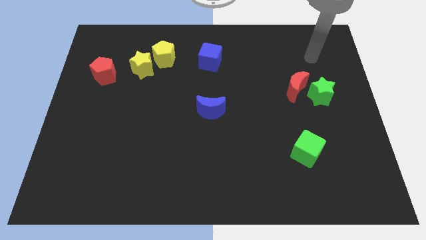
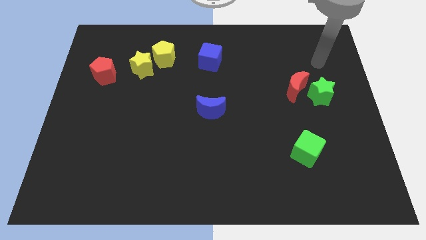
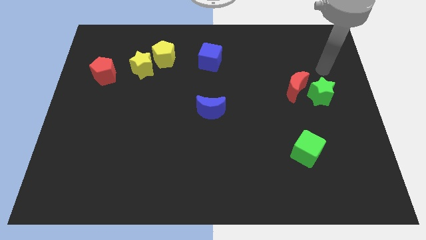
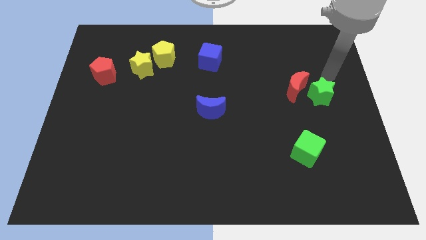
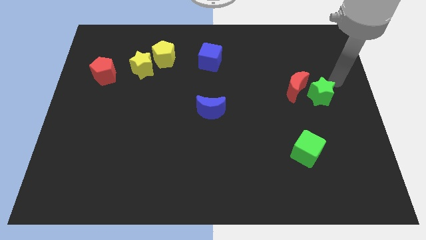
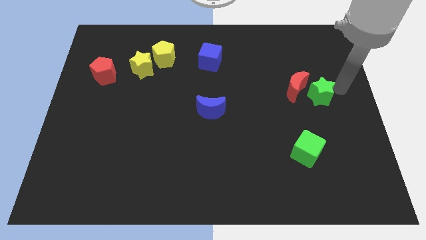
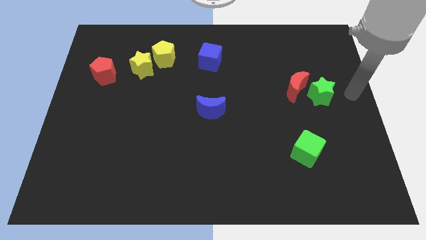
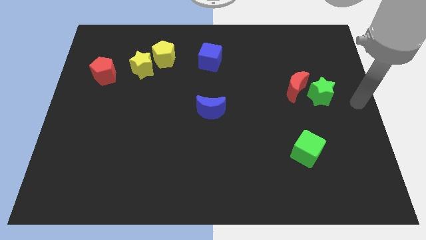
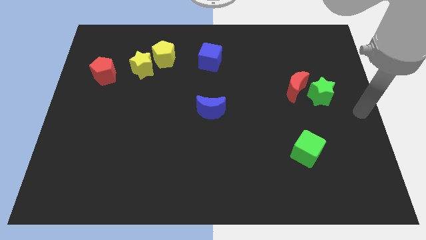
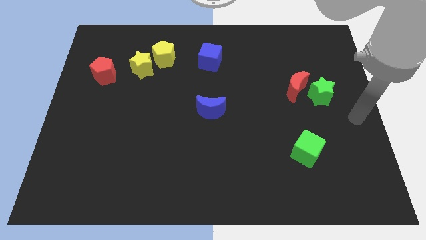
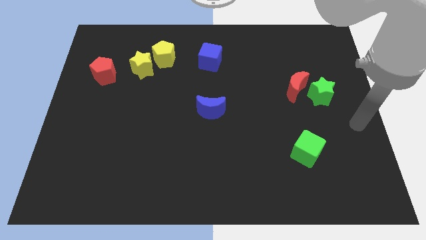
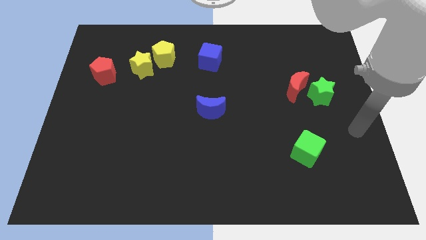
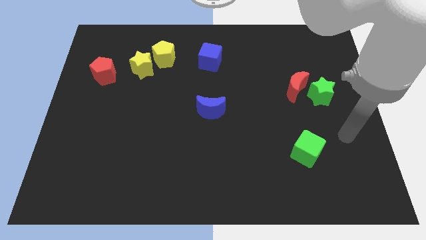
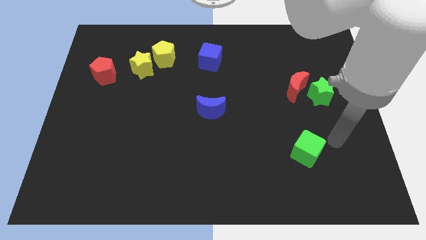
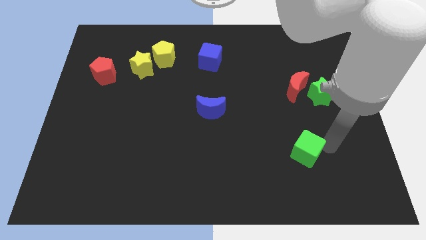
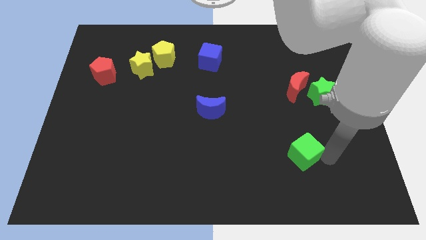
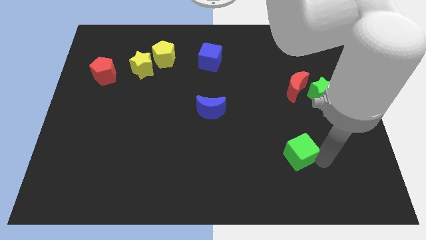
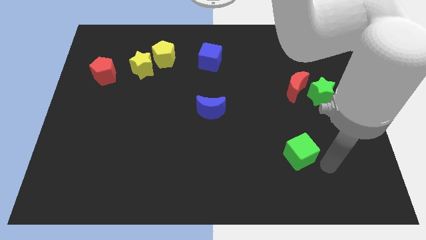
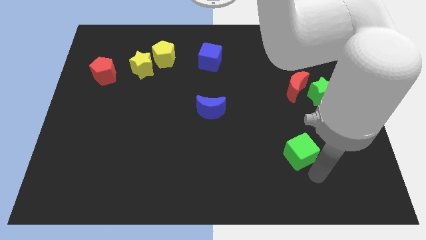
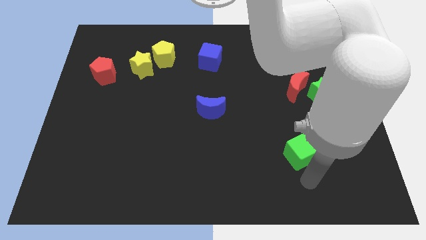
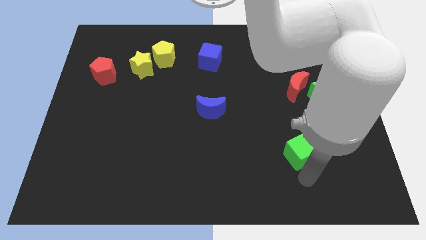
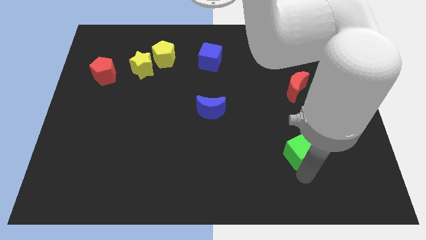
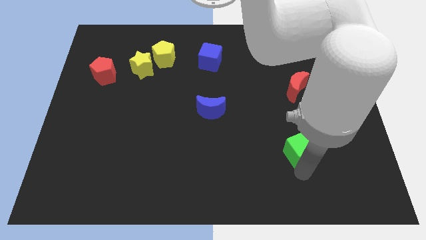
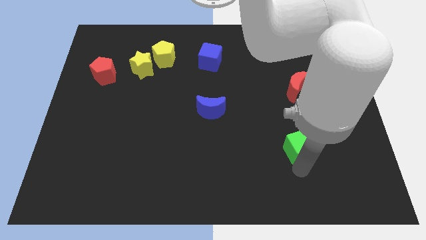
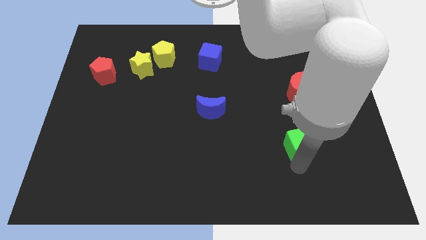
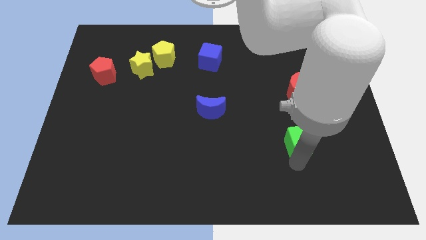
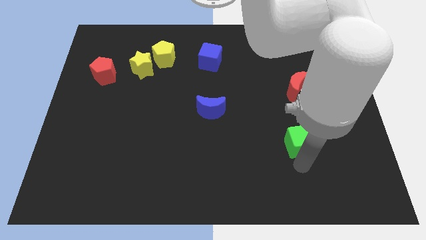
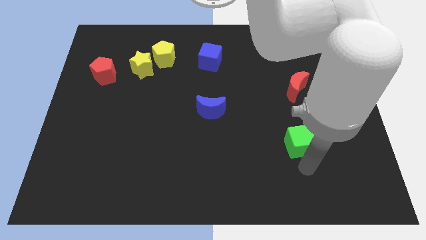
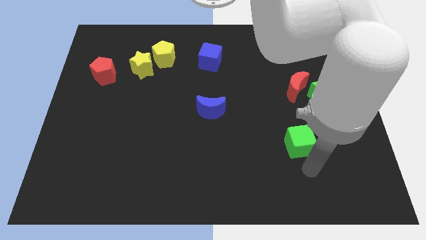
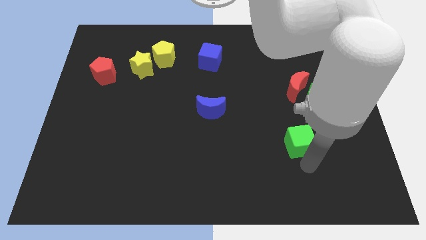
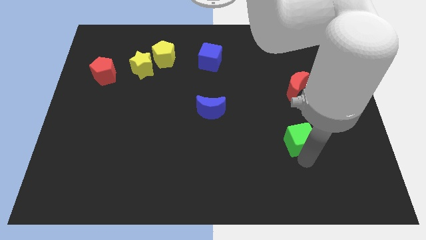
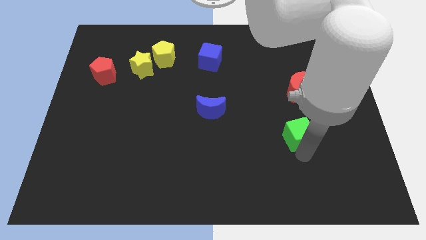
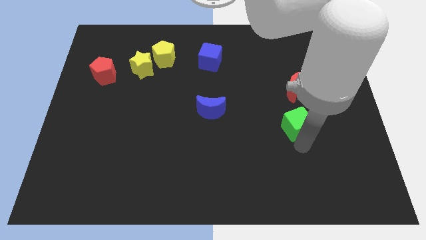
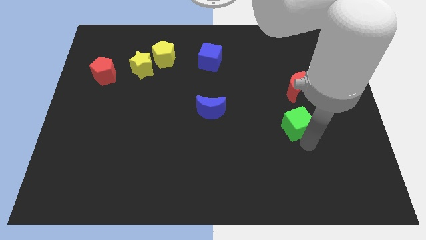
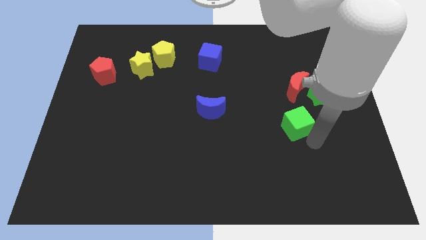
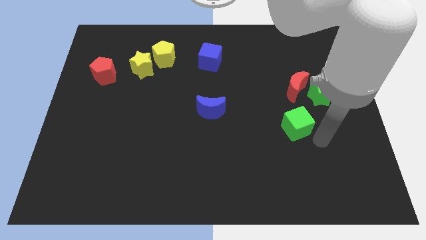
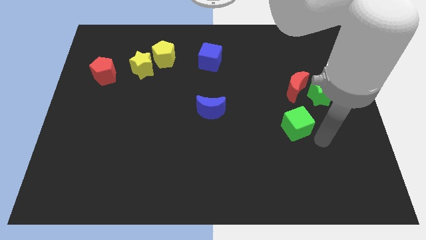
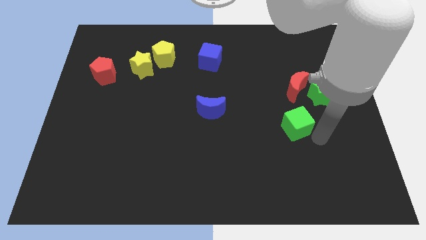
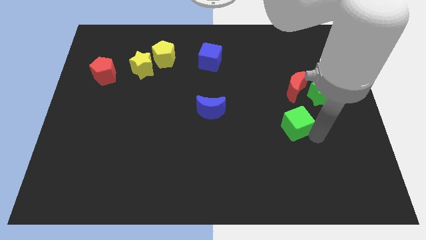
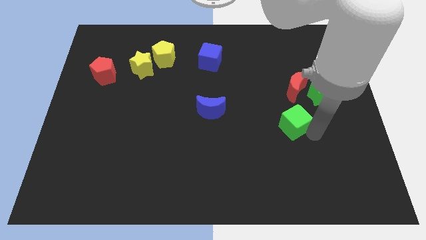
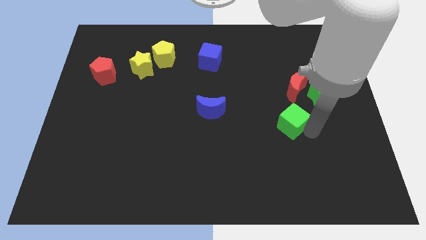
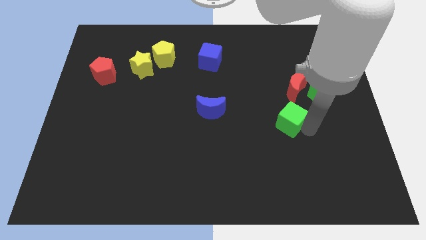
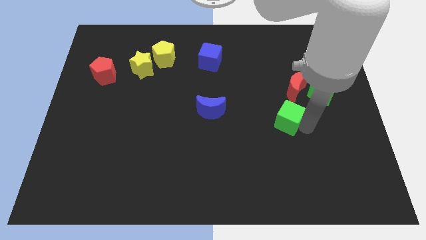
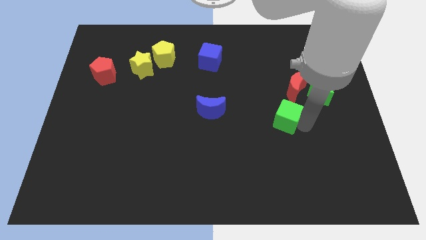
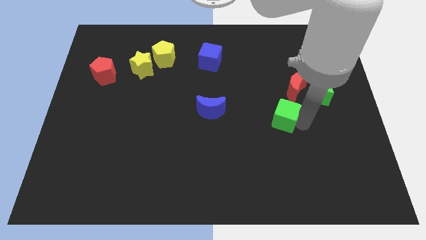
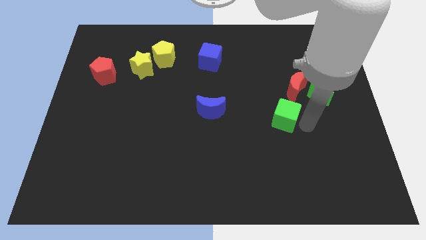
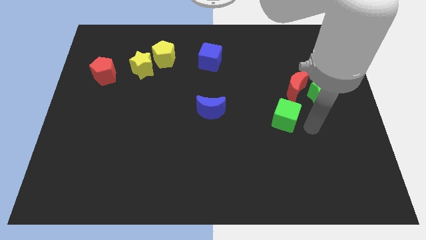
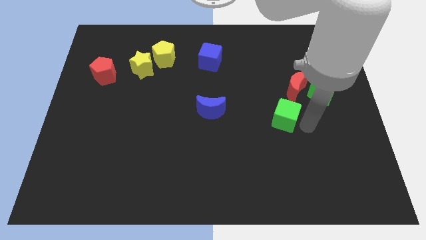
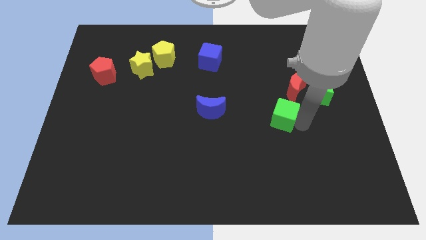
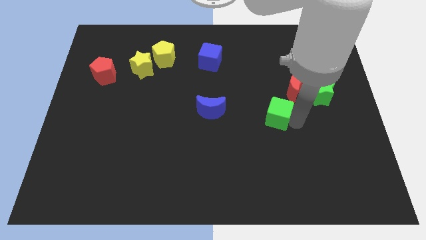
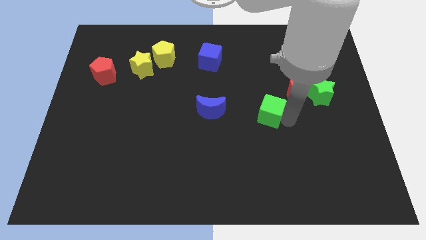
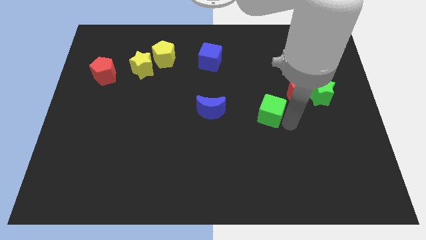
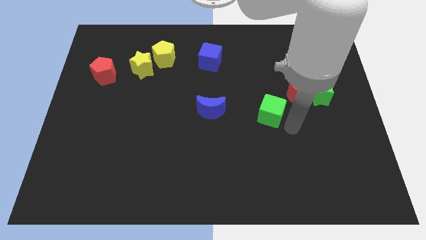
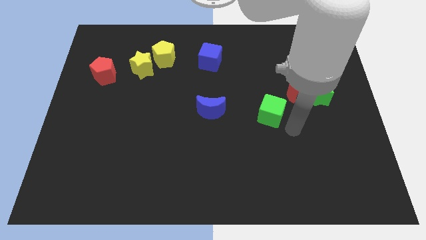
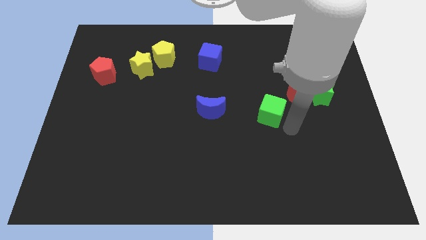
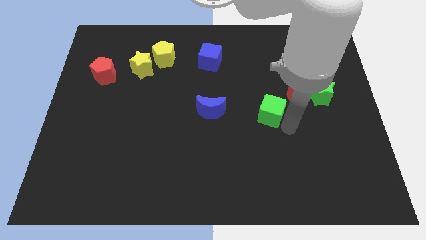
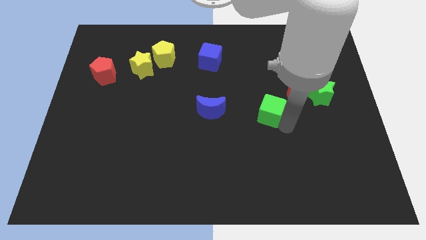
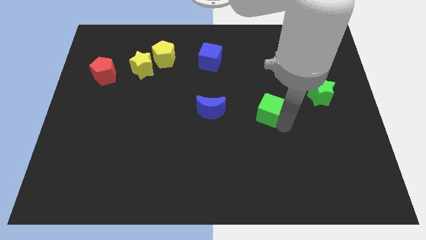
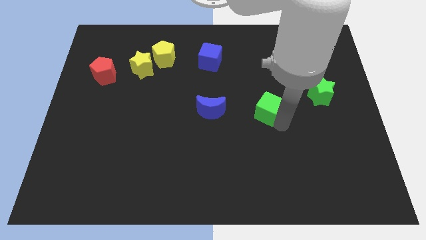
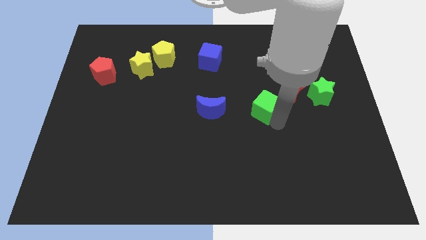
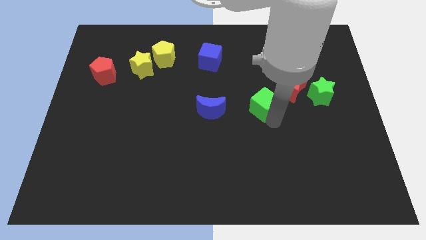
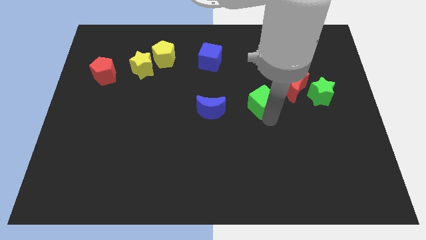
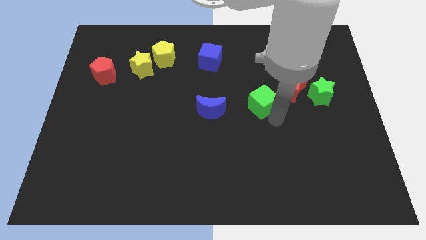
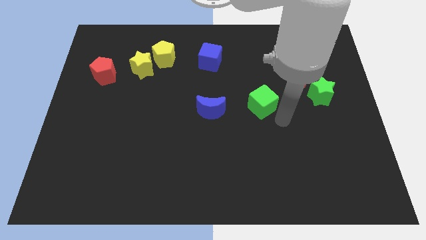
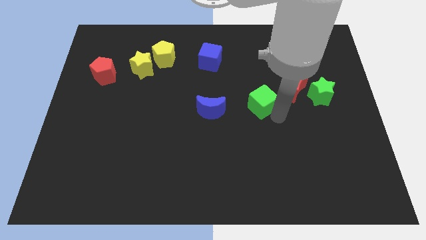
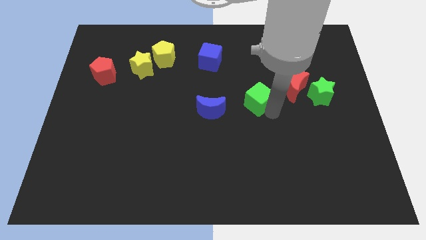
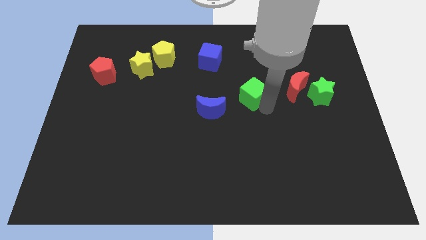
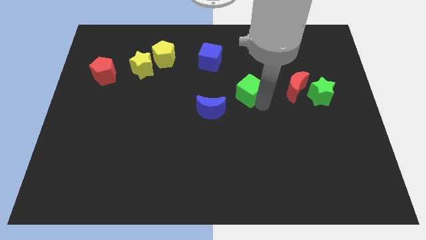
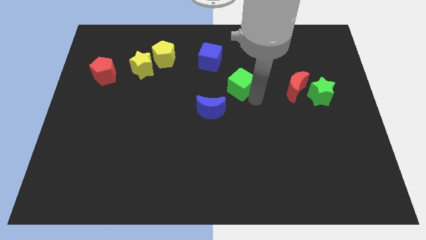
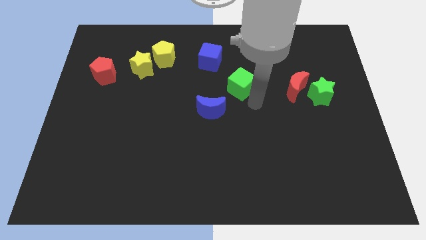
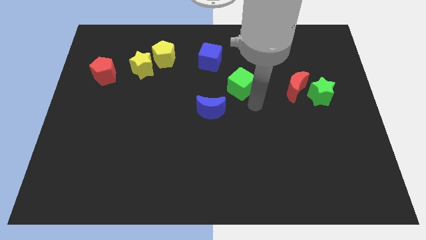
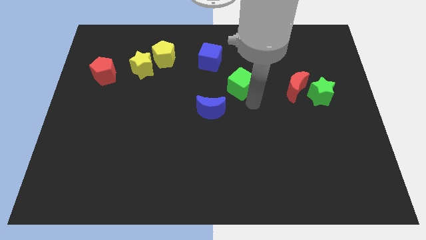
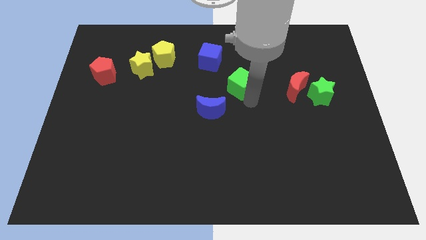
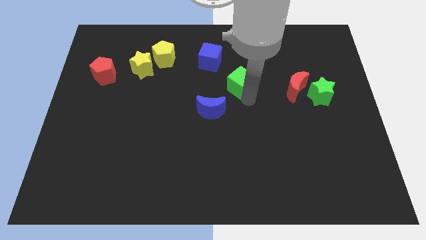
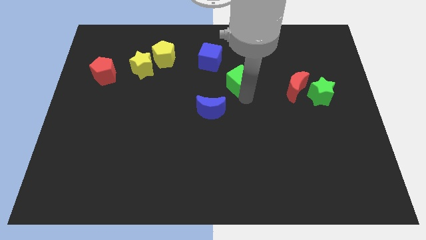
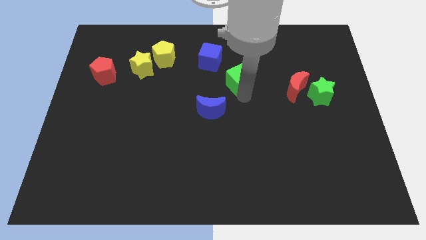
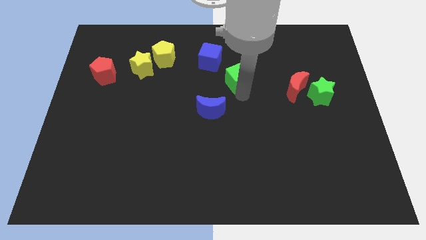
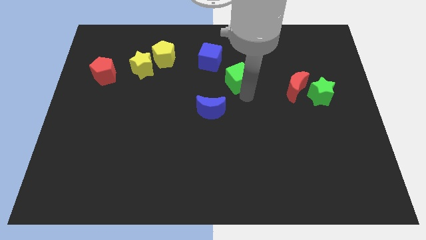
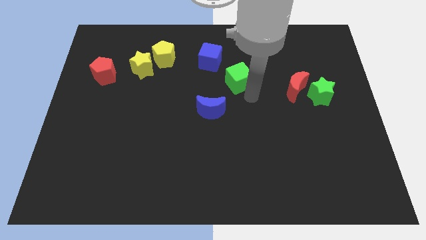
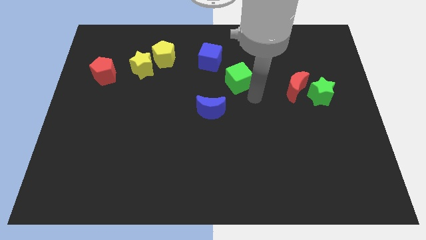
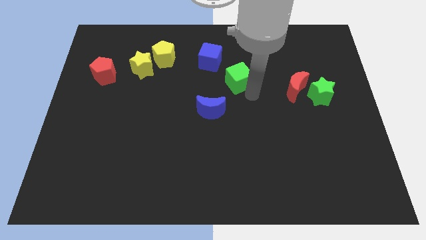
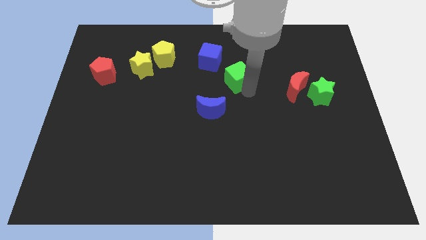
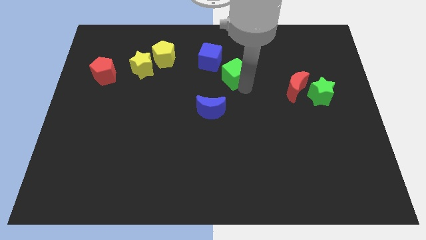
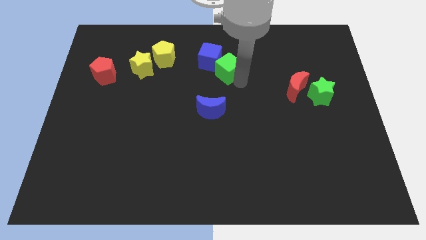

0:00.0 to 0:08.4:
put the green cube to the blue cube
